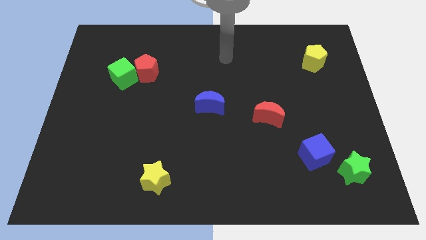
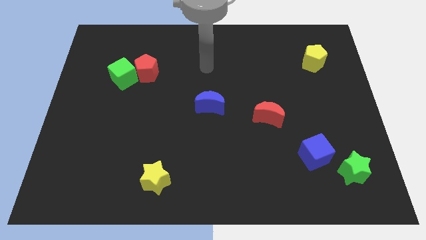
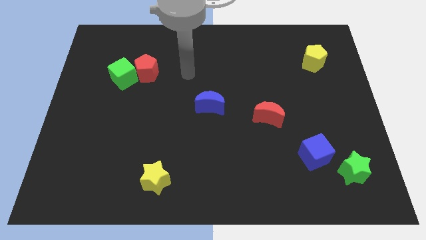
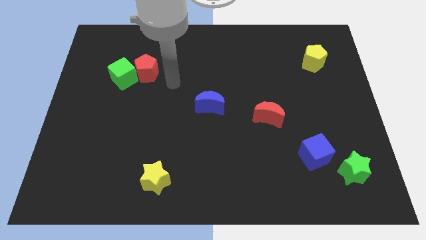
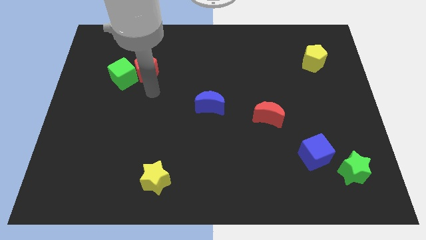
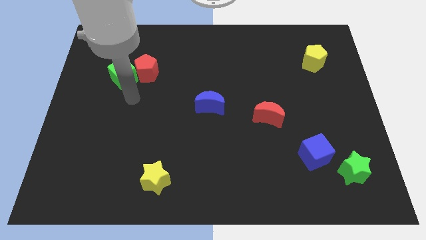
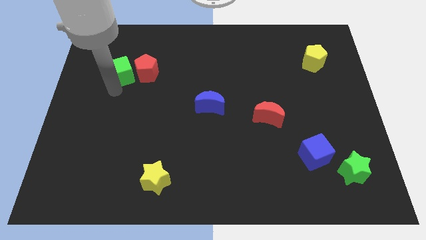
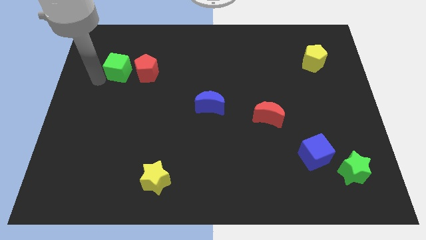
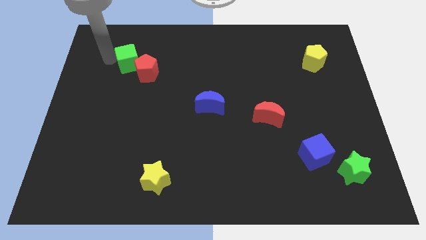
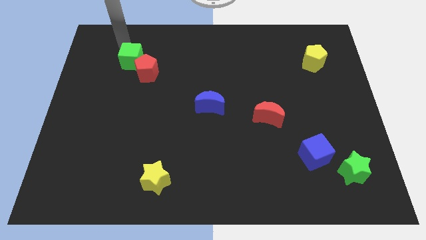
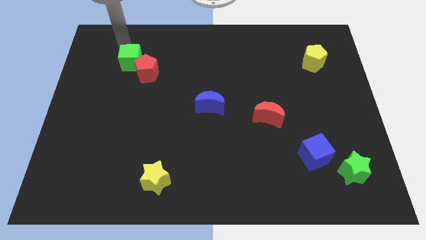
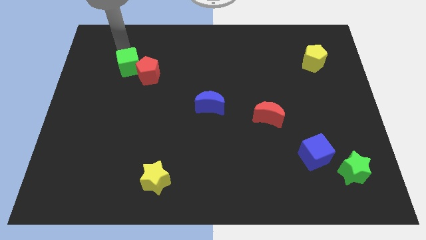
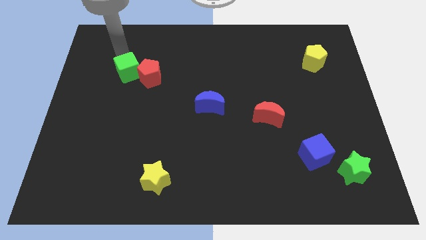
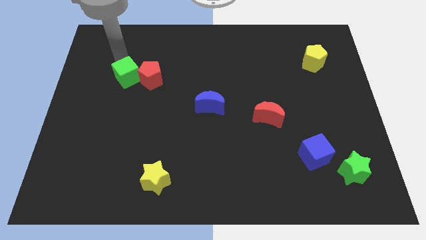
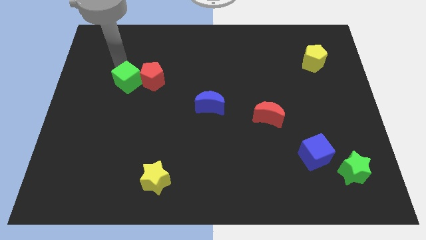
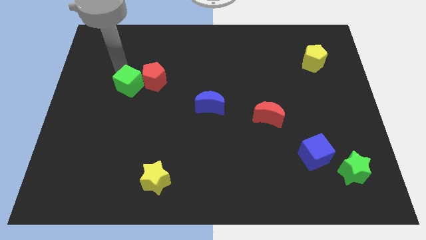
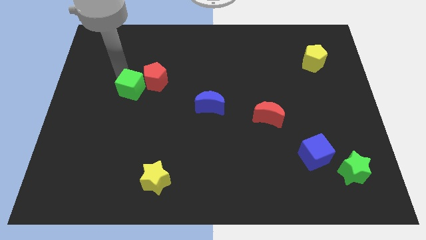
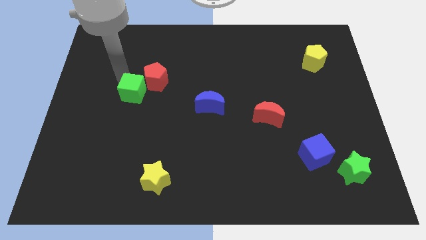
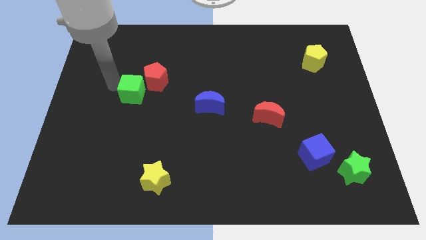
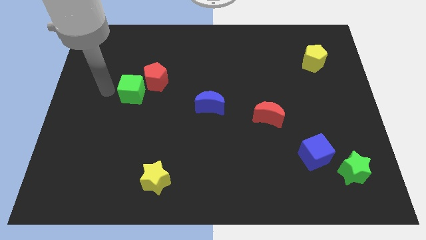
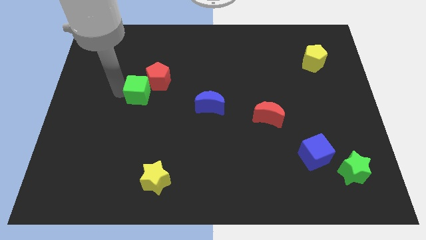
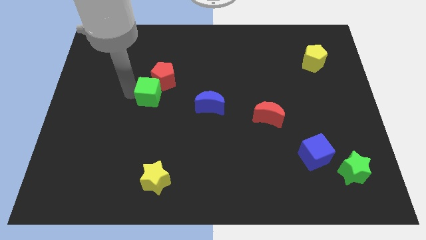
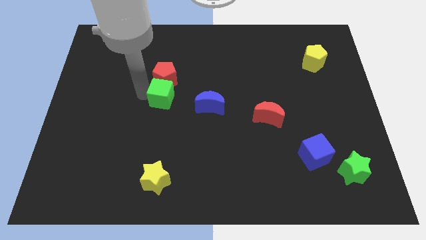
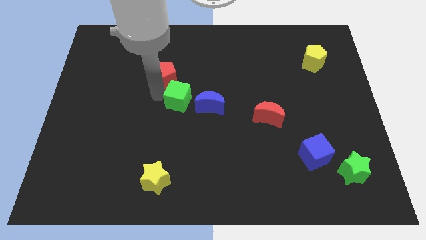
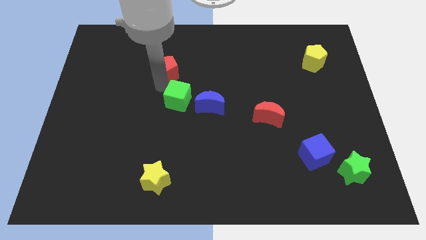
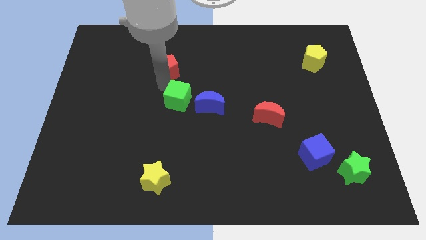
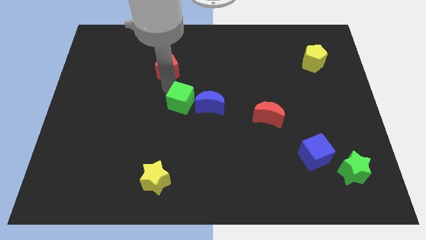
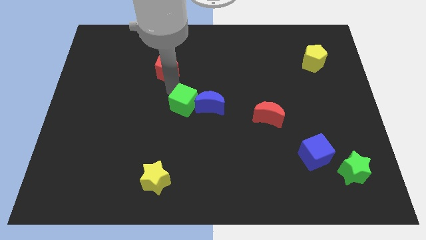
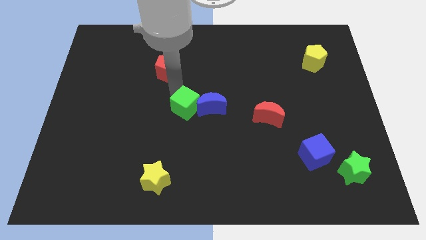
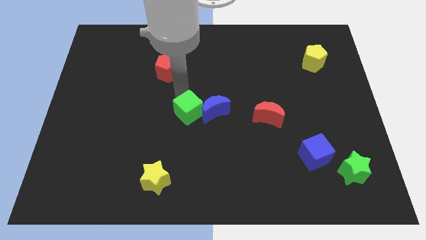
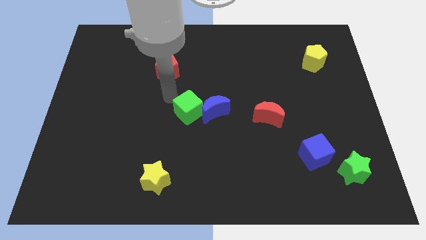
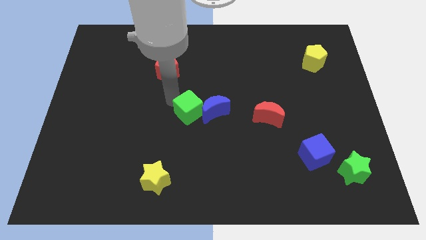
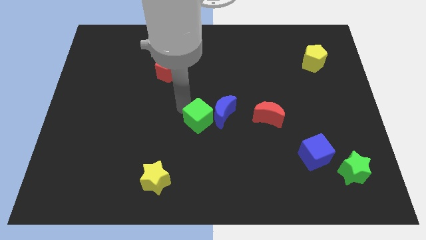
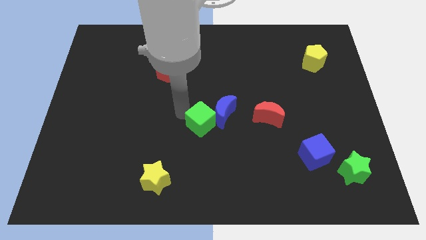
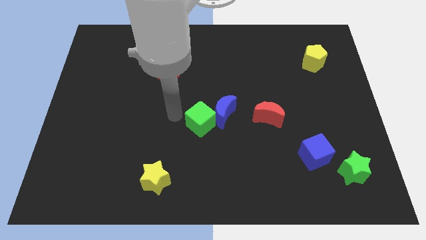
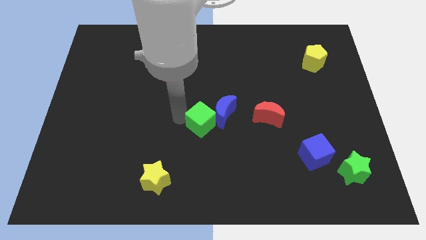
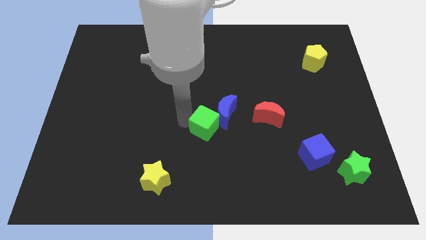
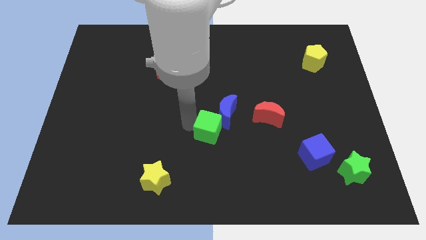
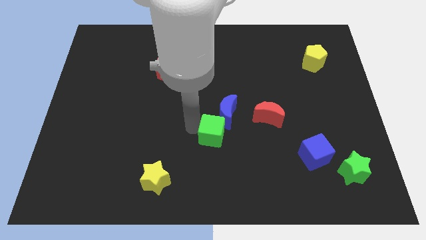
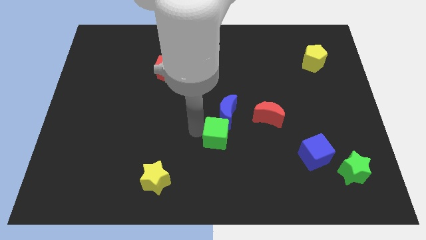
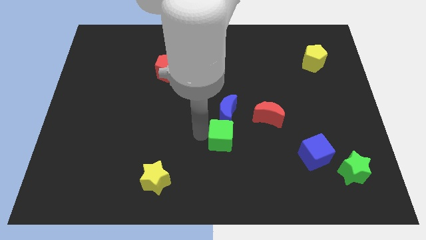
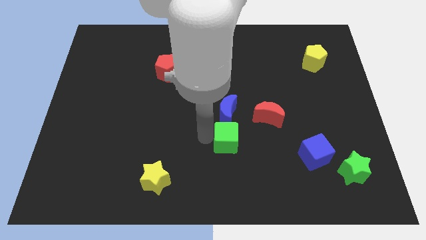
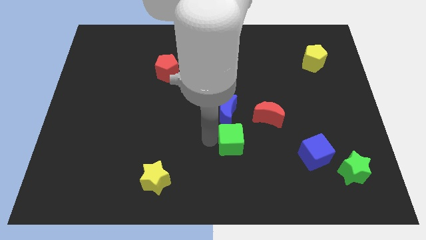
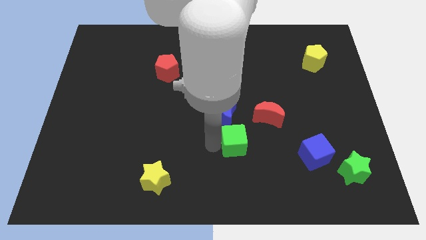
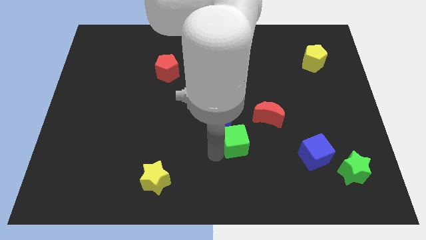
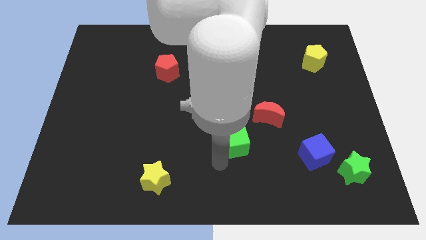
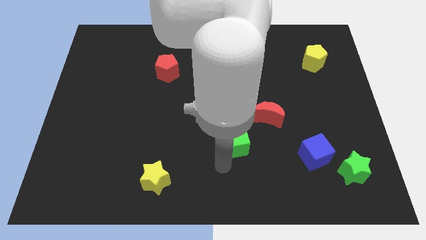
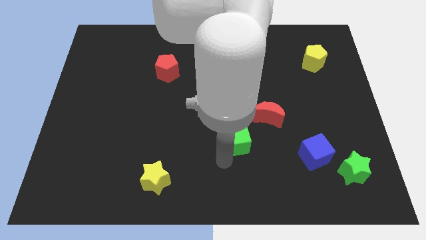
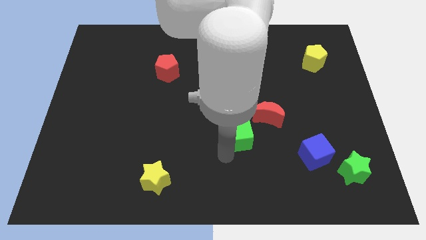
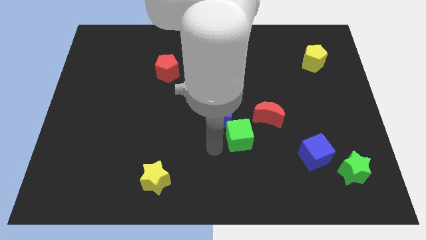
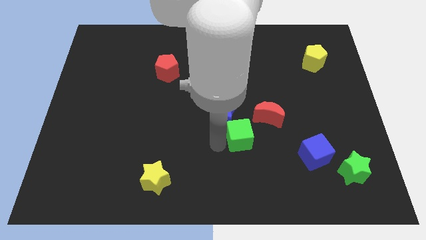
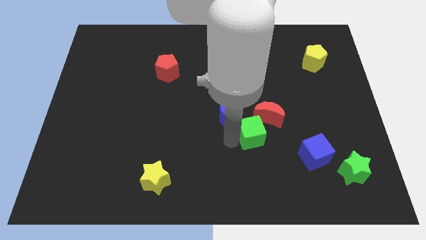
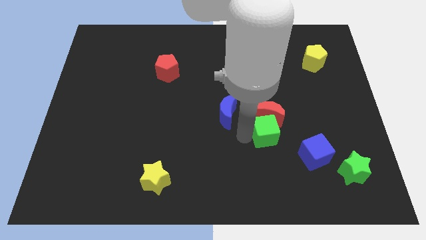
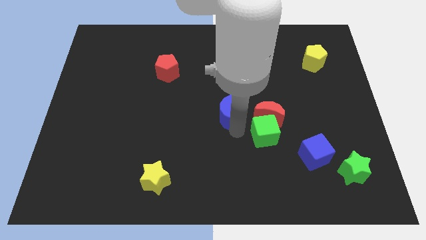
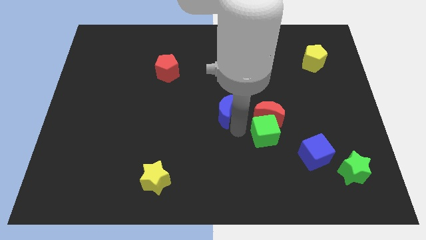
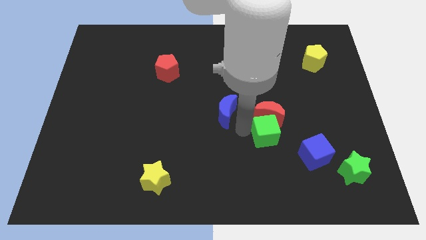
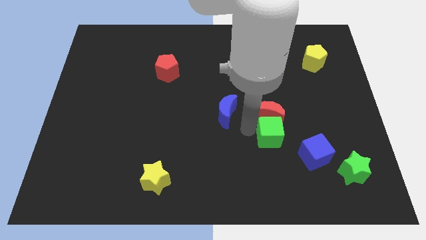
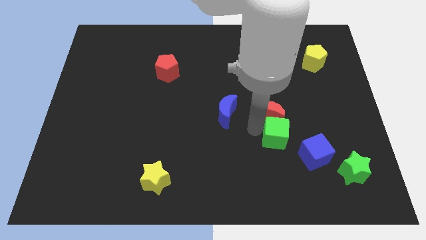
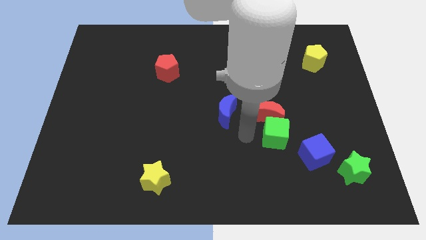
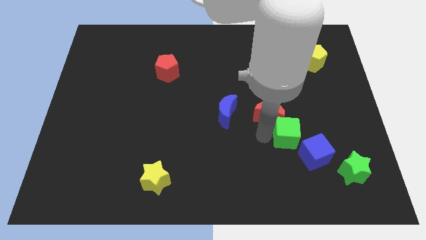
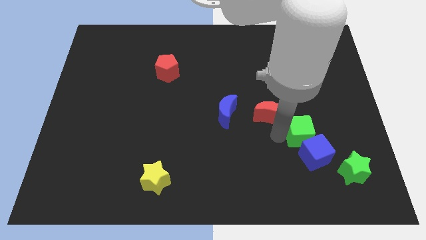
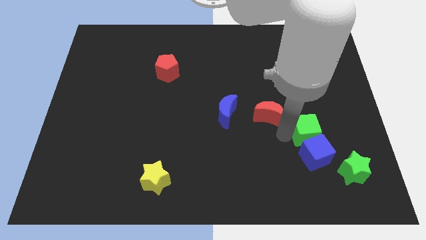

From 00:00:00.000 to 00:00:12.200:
put the green cube to the top right side of the blue cube

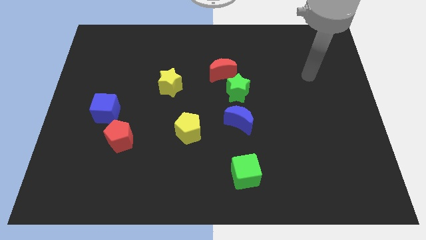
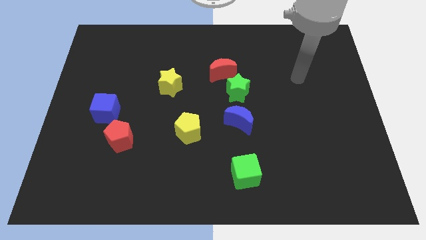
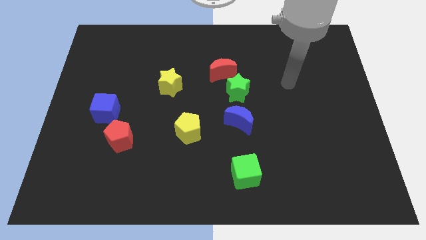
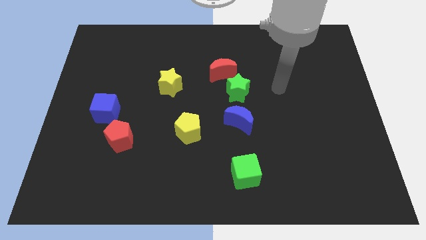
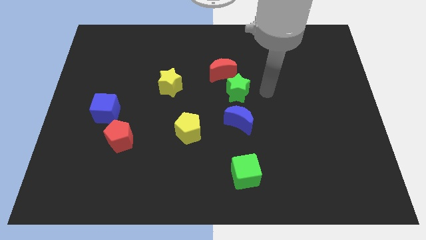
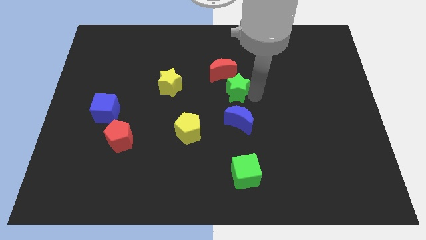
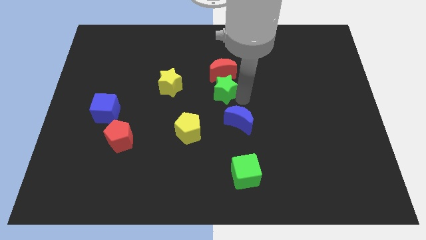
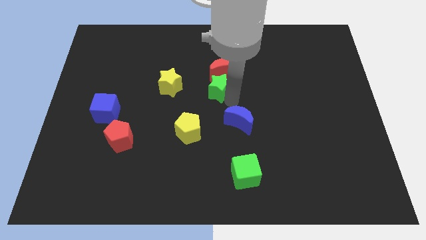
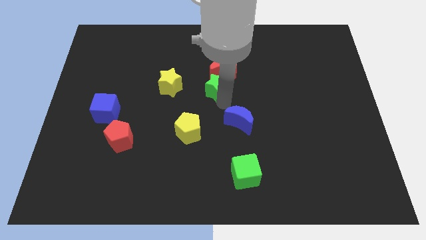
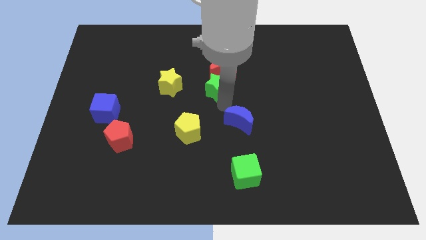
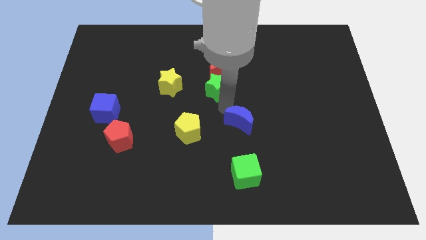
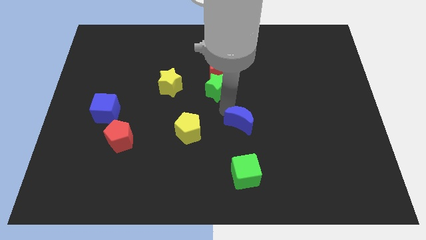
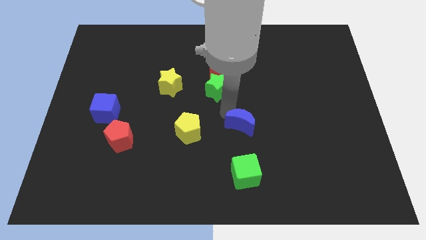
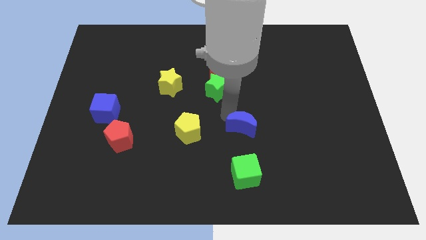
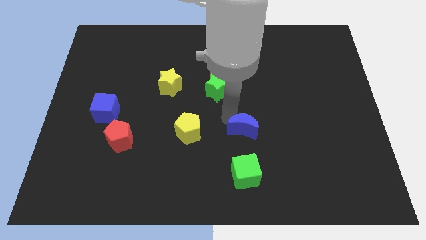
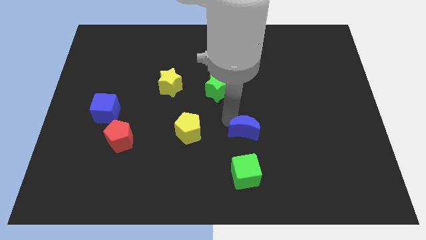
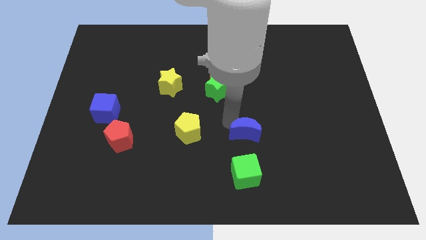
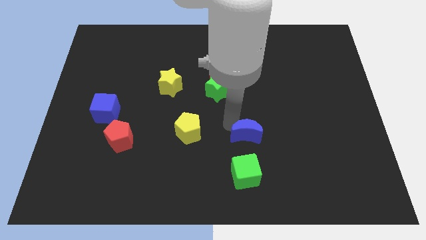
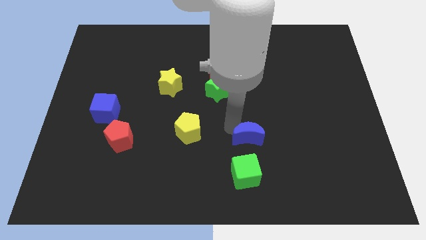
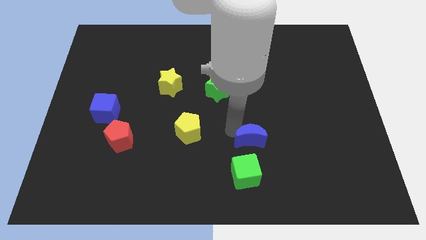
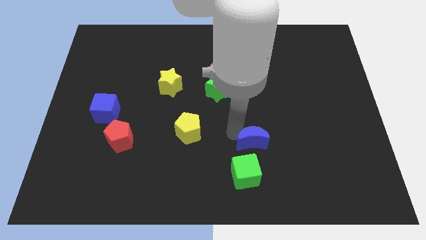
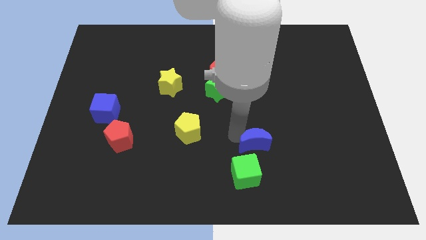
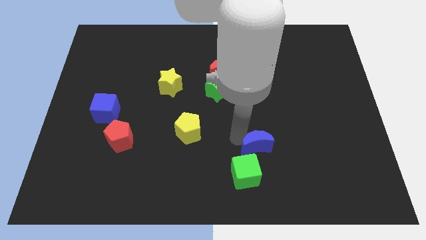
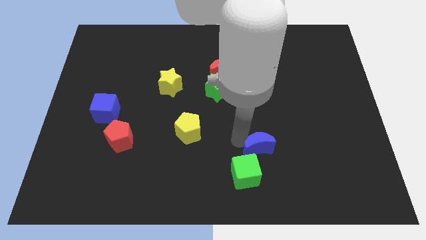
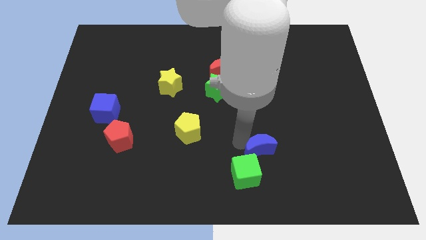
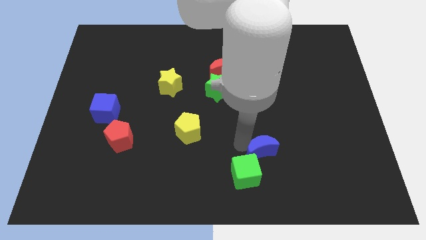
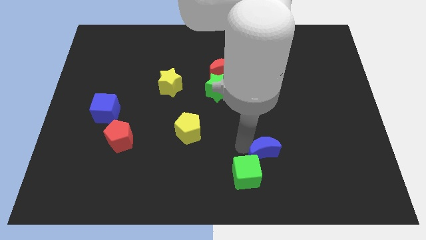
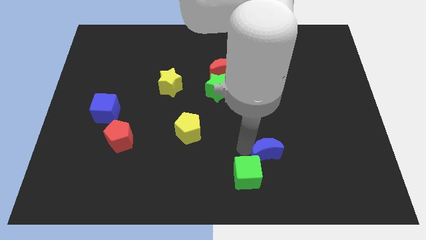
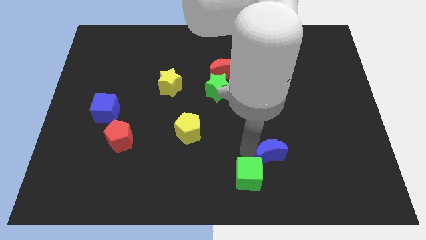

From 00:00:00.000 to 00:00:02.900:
push the blue moon to the right of the green cube
